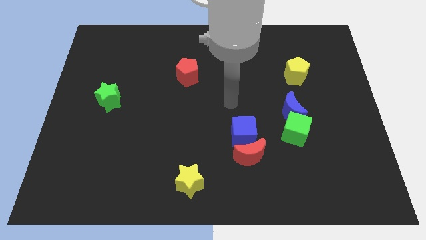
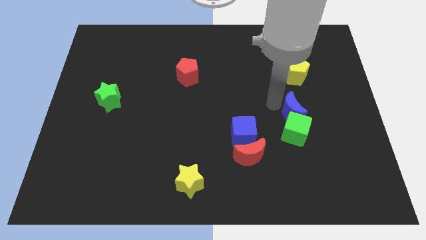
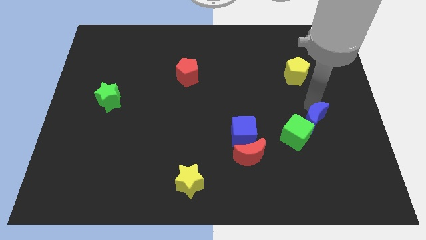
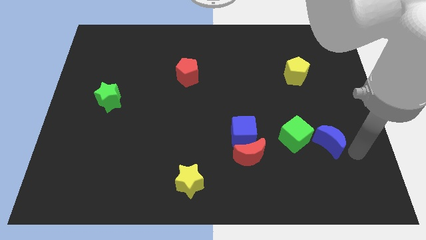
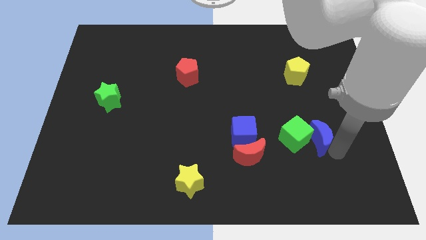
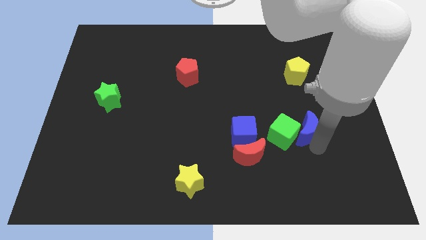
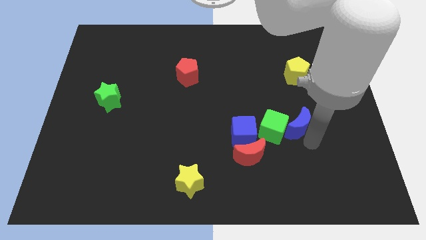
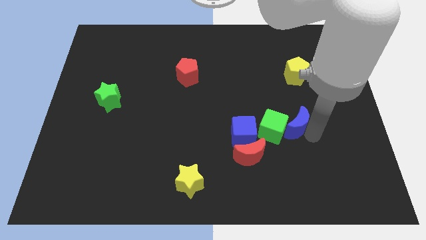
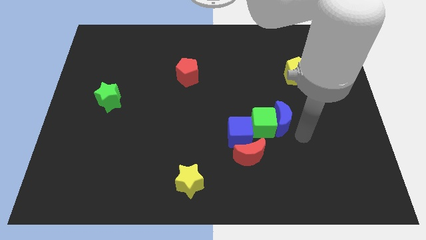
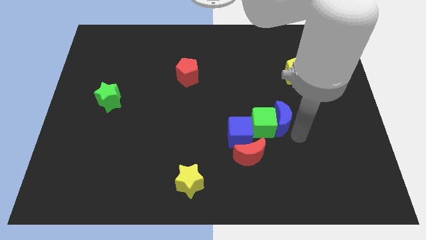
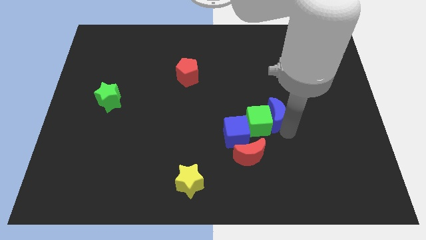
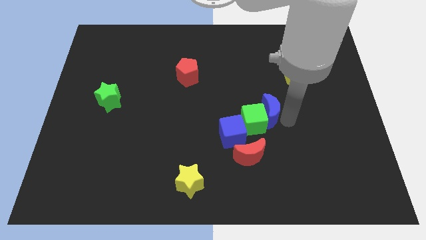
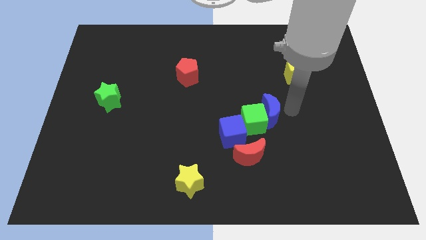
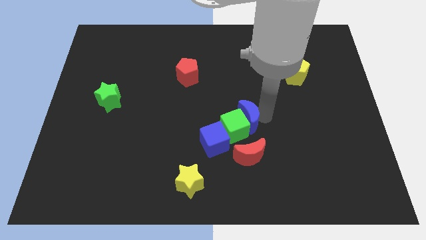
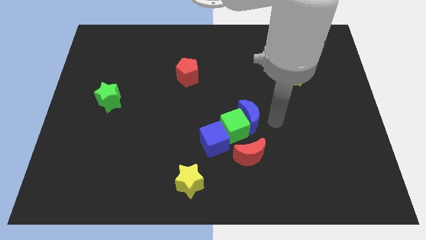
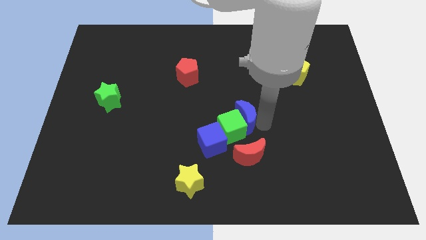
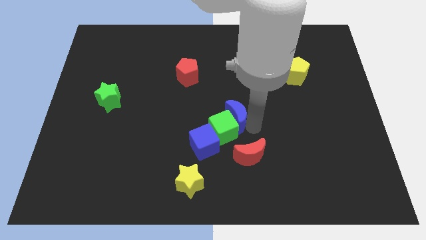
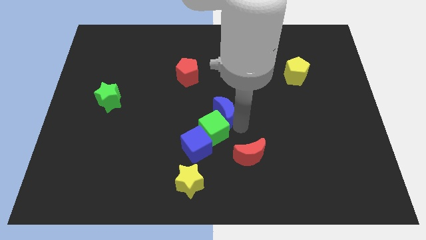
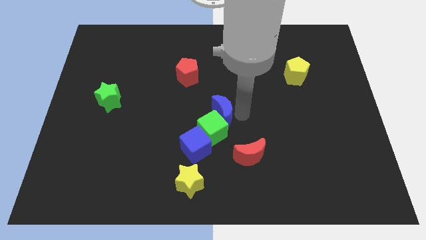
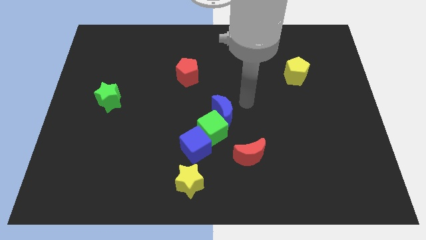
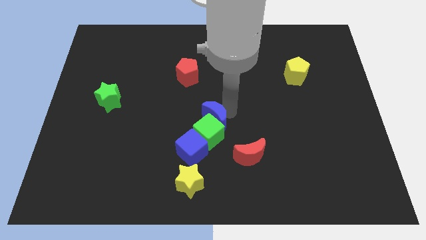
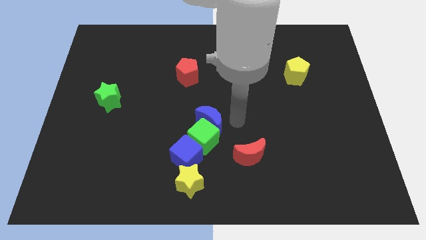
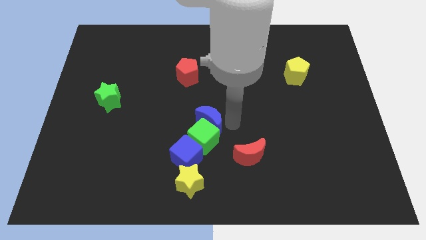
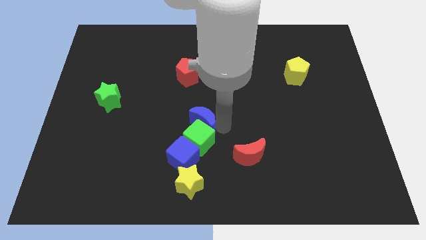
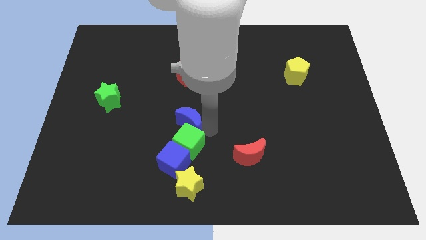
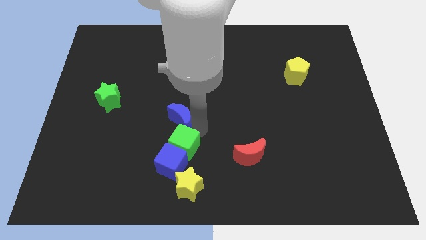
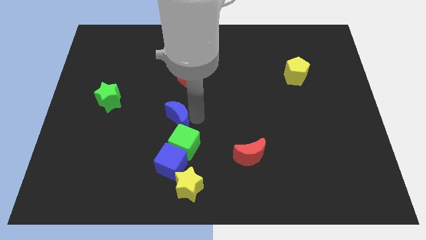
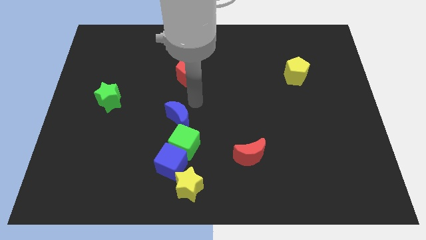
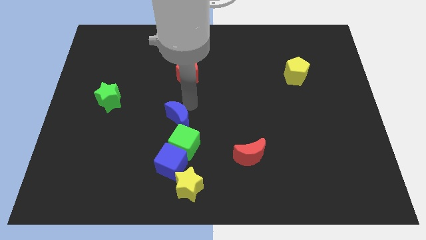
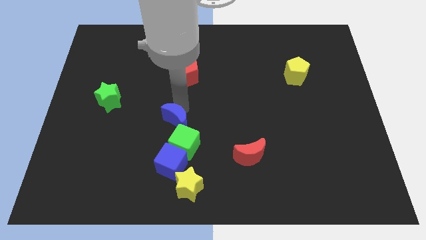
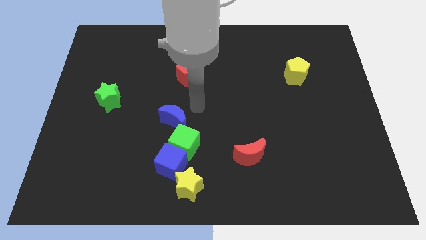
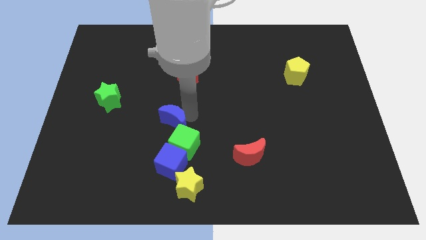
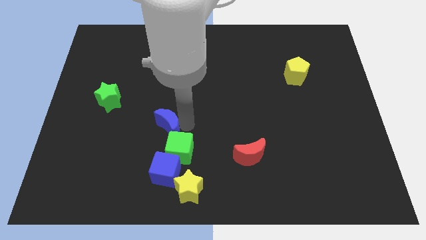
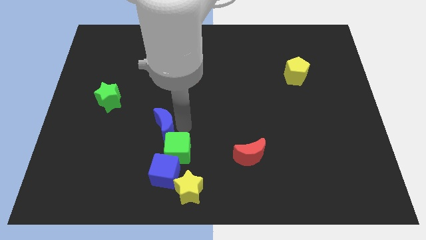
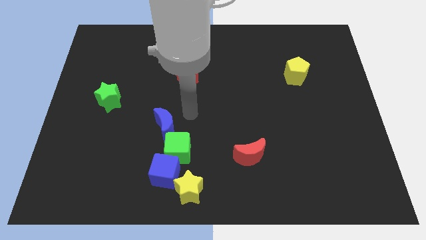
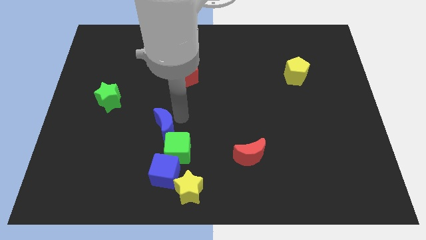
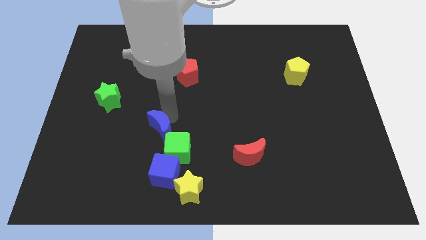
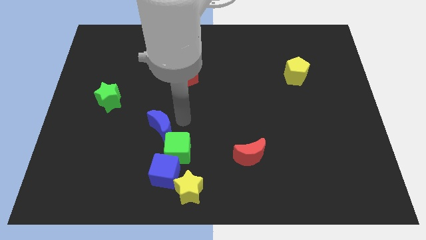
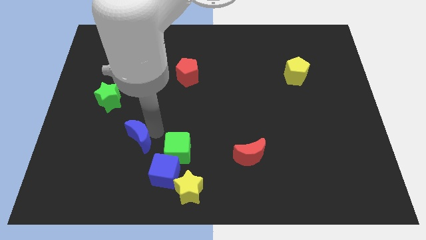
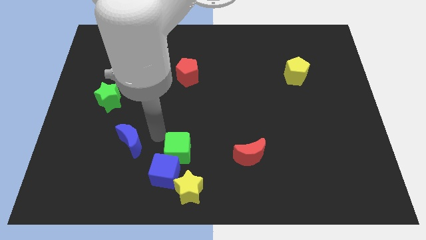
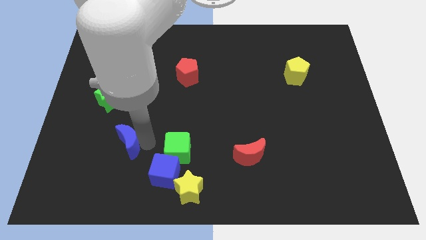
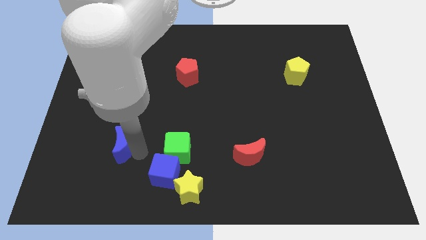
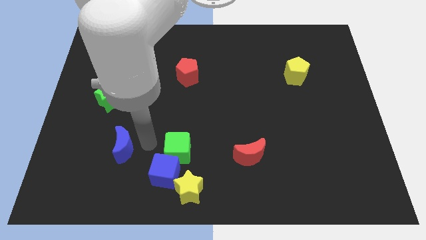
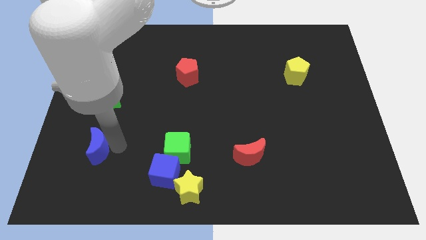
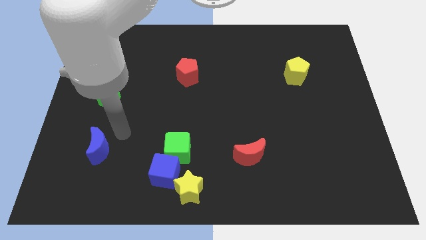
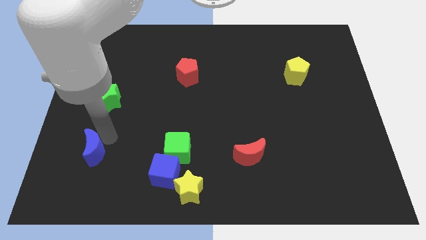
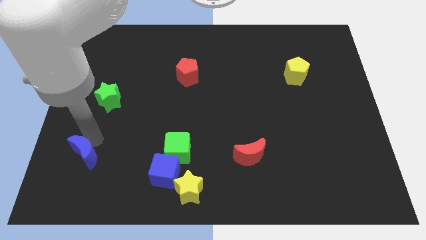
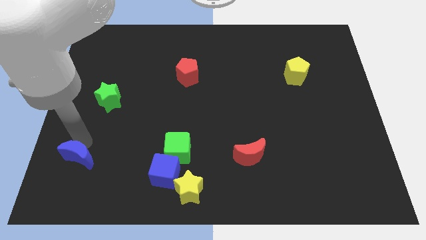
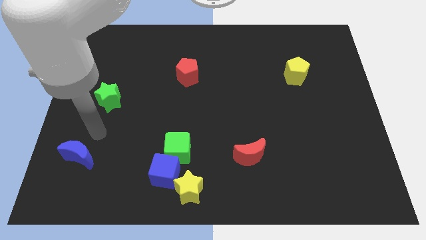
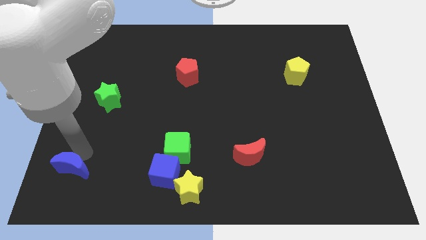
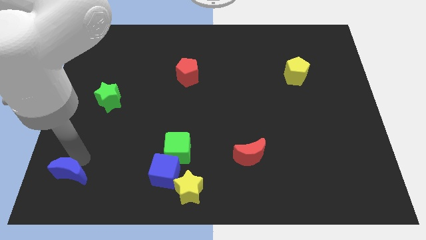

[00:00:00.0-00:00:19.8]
move the blue moon to the bottom left corner

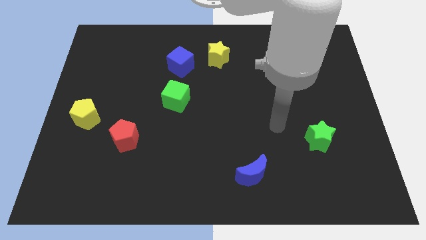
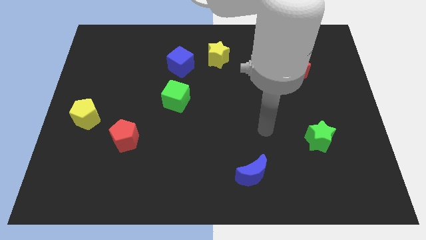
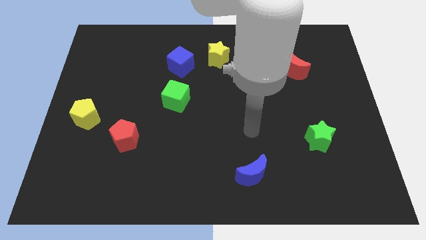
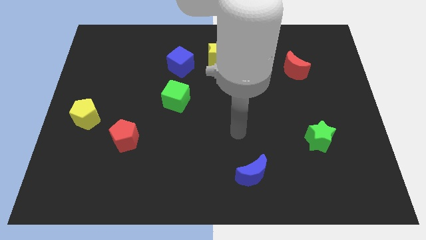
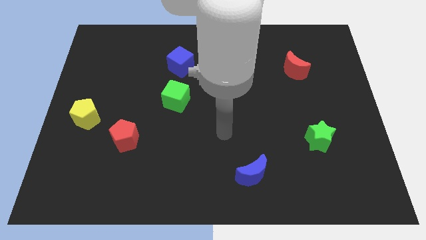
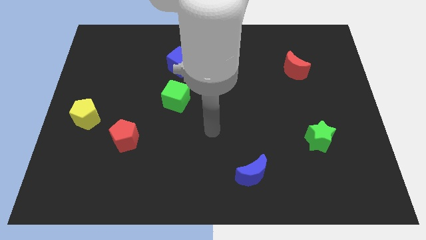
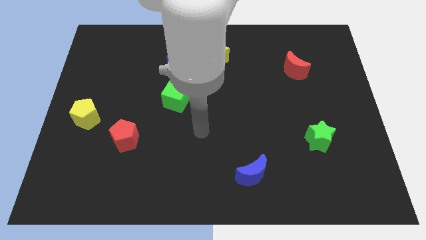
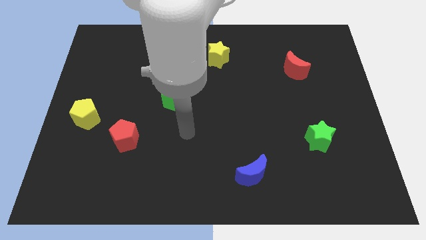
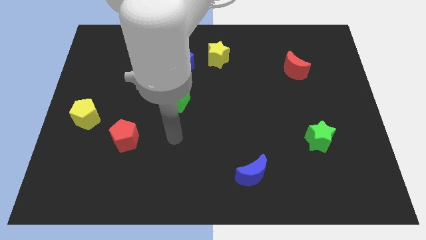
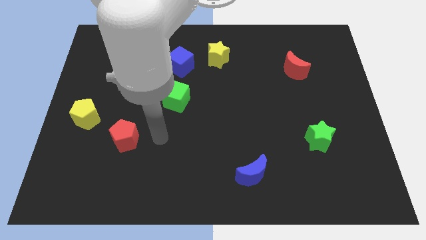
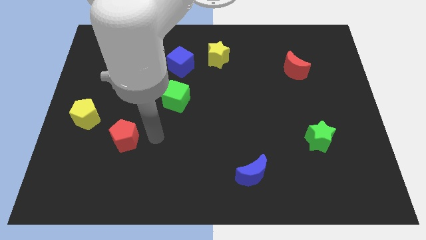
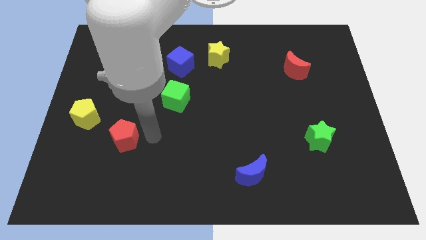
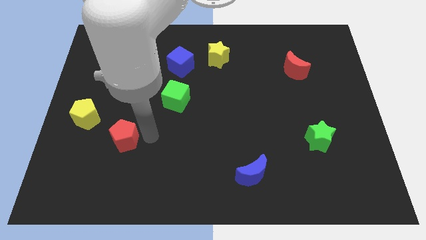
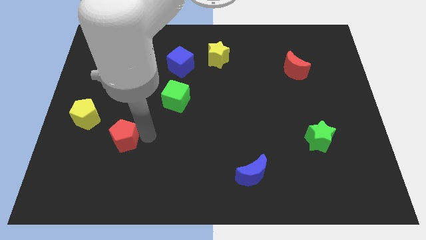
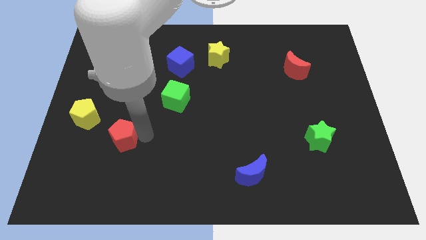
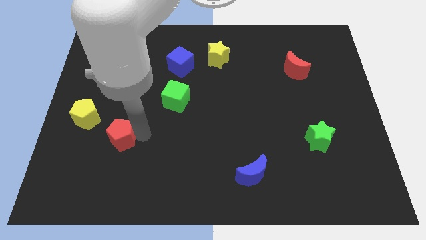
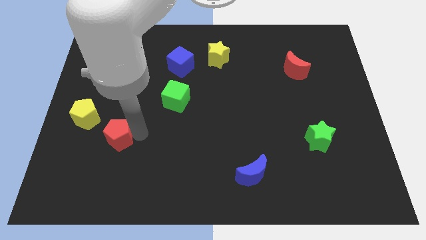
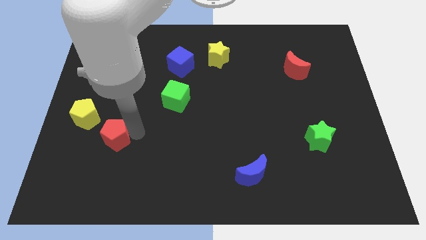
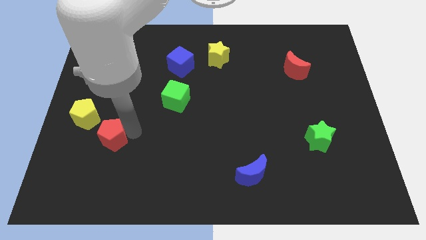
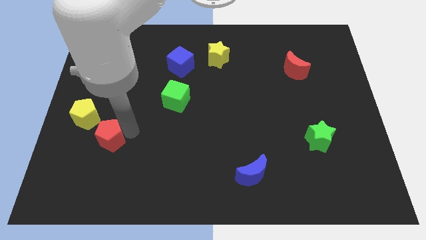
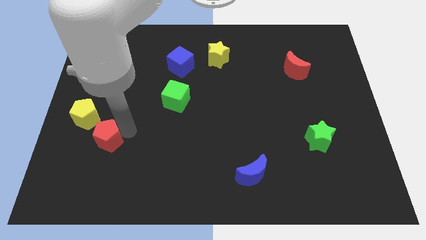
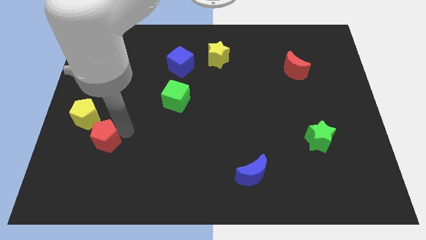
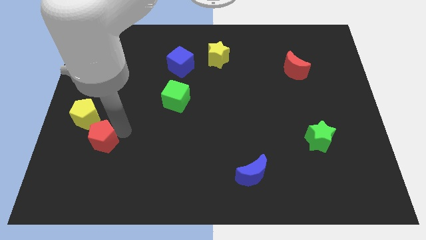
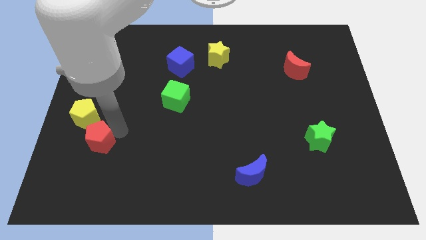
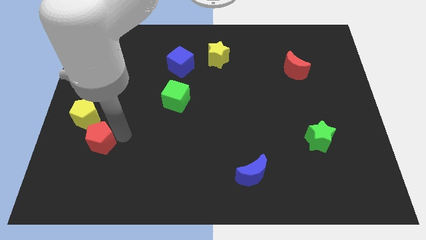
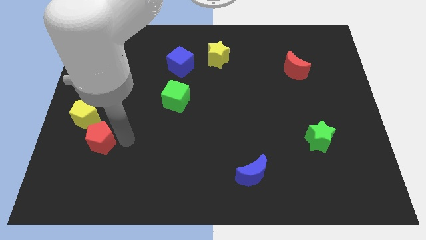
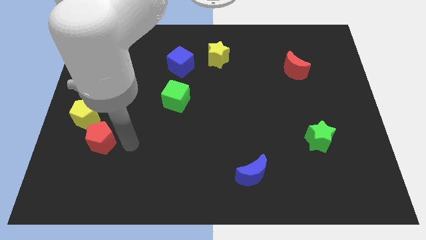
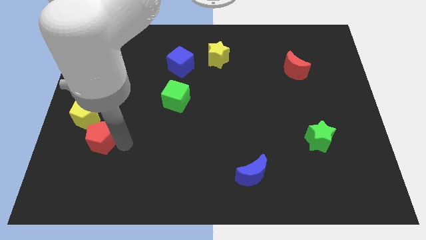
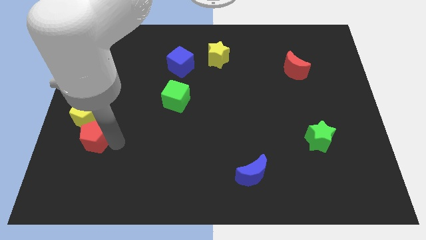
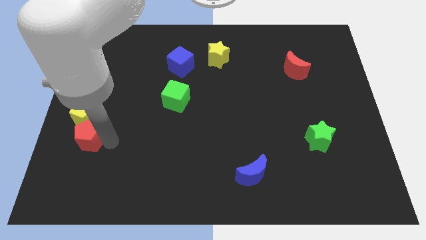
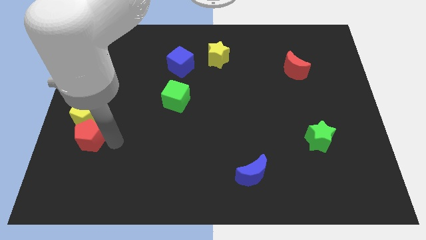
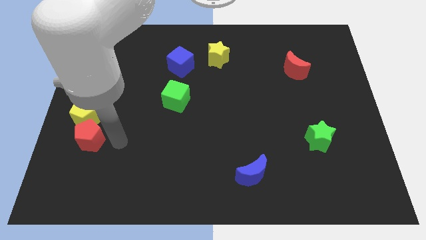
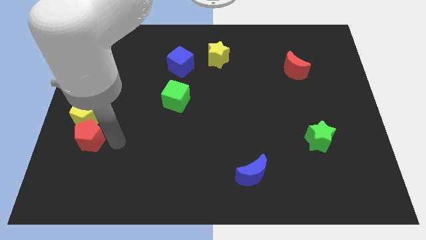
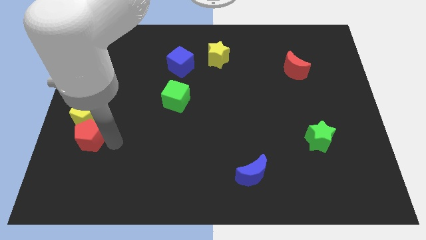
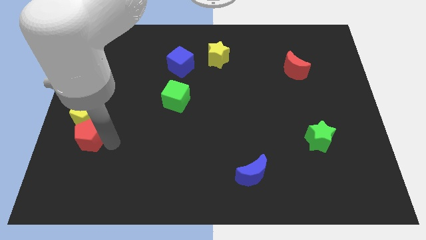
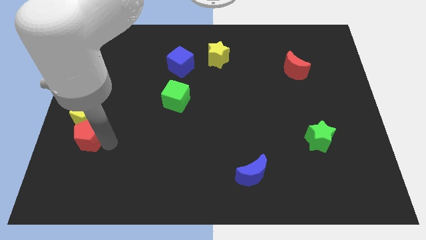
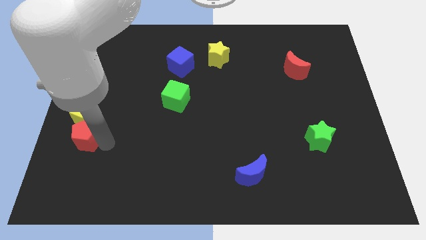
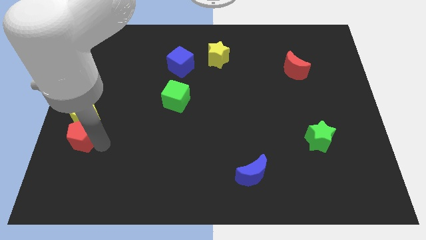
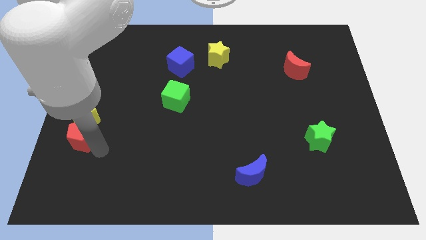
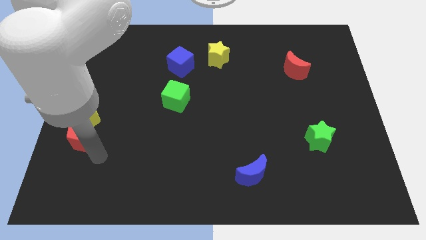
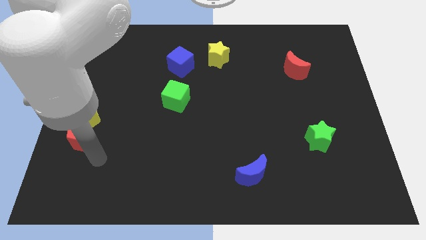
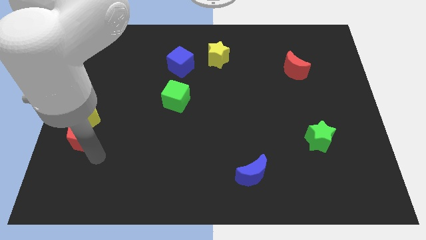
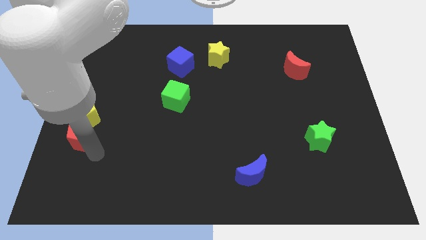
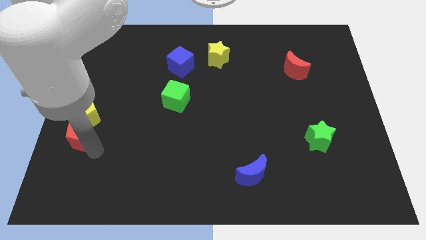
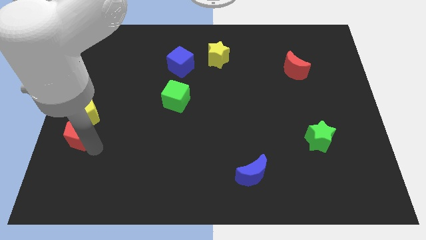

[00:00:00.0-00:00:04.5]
push the red pentagon to the left side
